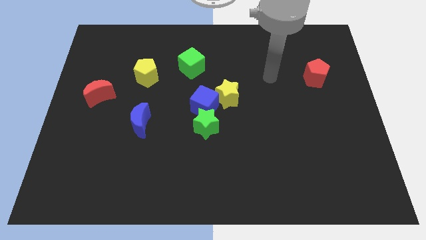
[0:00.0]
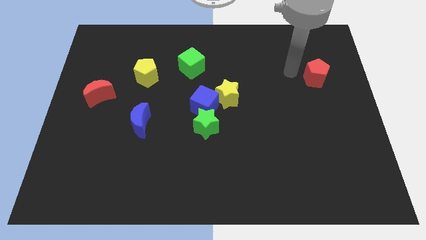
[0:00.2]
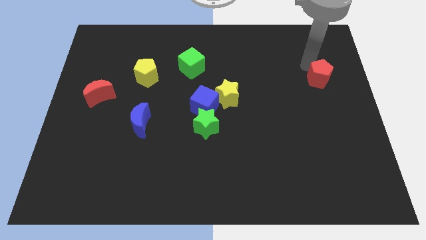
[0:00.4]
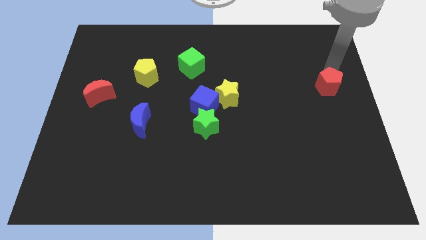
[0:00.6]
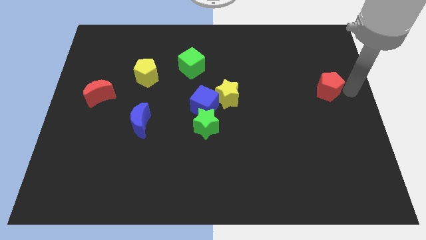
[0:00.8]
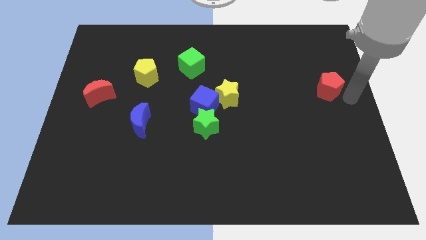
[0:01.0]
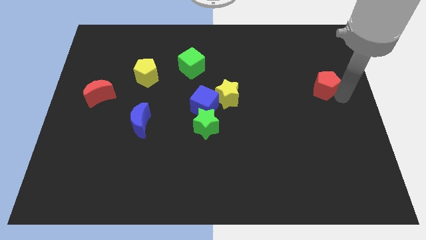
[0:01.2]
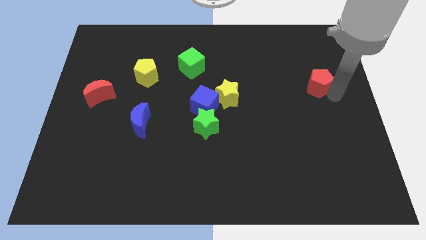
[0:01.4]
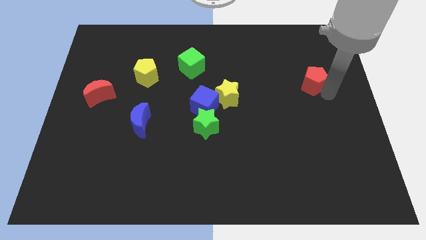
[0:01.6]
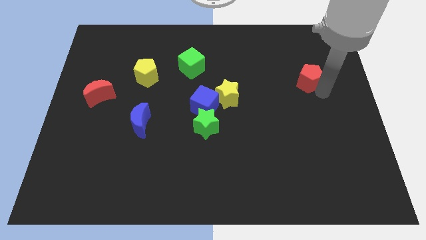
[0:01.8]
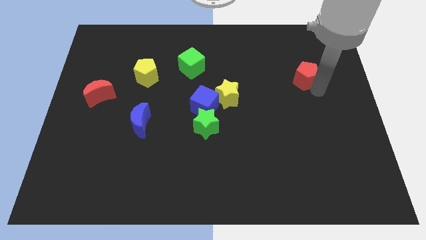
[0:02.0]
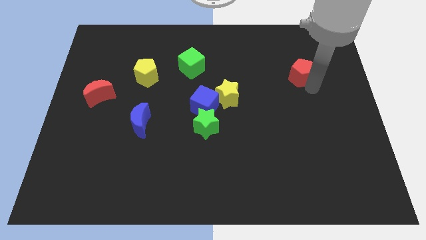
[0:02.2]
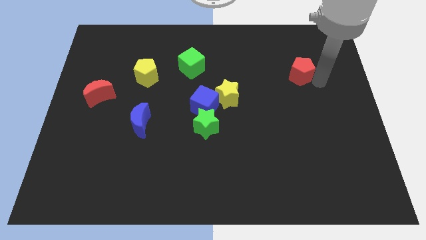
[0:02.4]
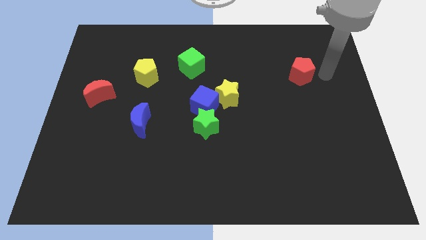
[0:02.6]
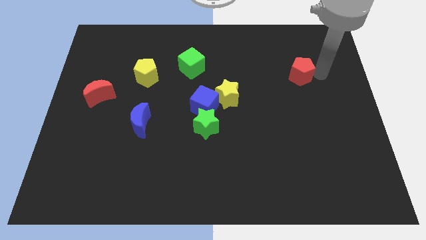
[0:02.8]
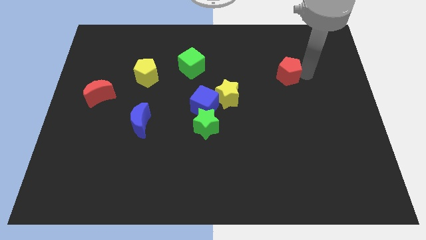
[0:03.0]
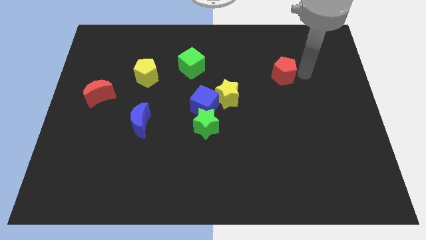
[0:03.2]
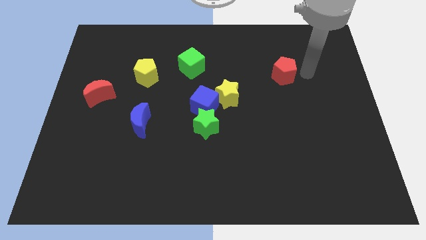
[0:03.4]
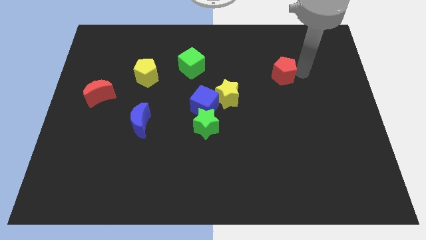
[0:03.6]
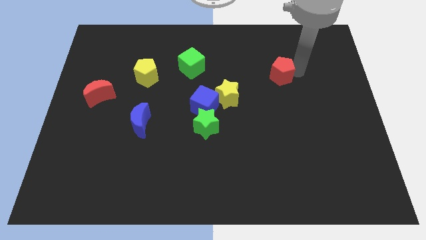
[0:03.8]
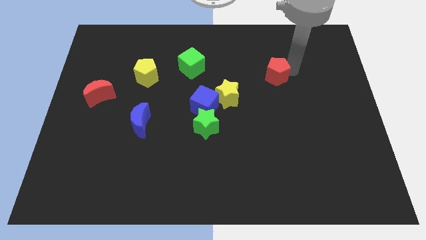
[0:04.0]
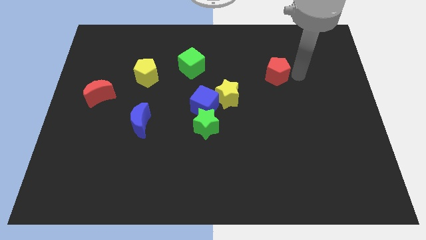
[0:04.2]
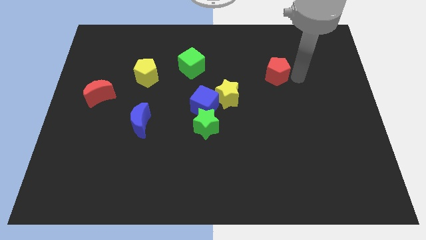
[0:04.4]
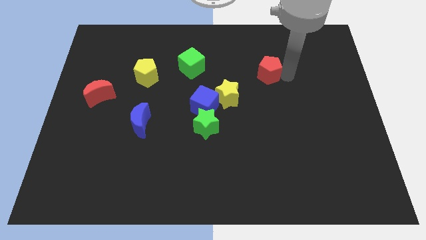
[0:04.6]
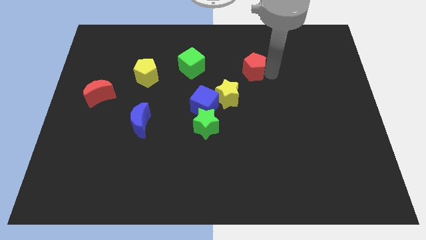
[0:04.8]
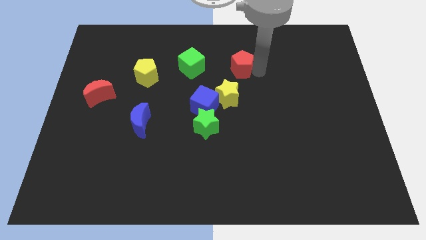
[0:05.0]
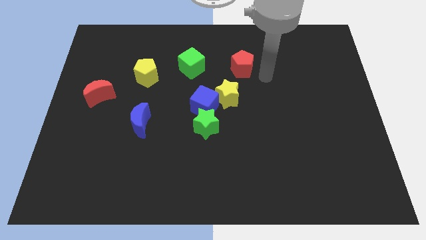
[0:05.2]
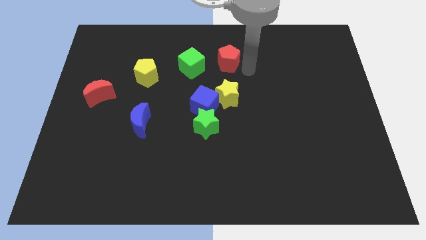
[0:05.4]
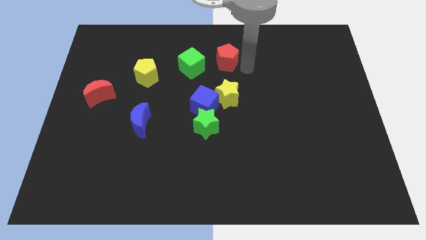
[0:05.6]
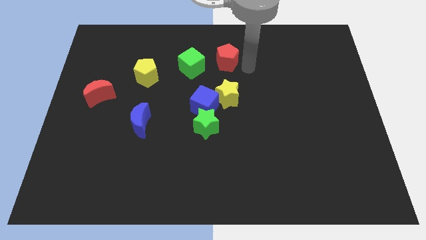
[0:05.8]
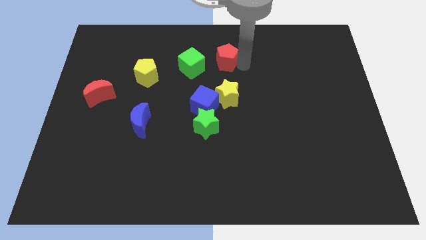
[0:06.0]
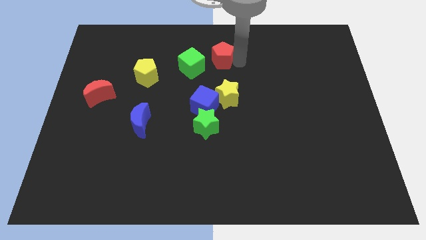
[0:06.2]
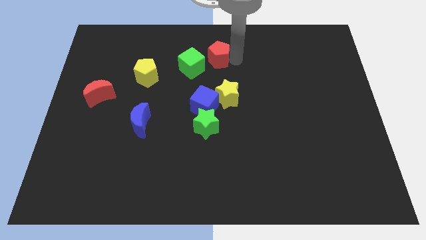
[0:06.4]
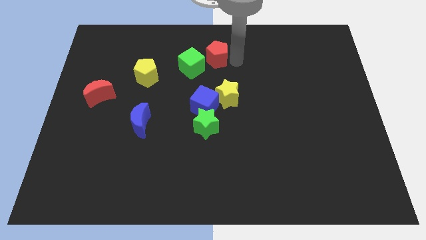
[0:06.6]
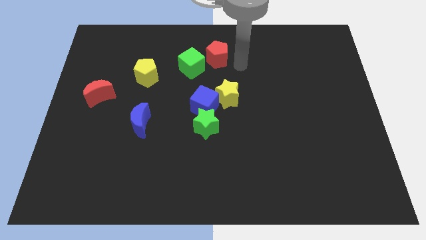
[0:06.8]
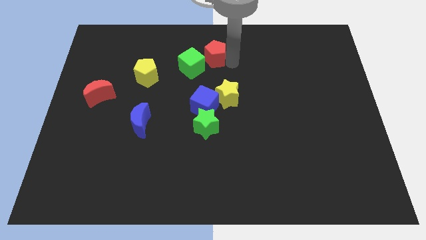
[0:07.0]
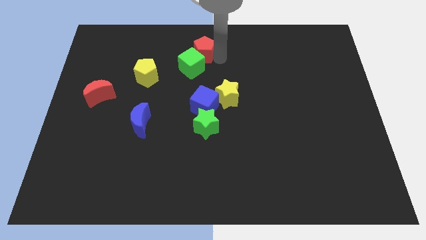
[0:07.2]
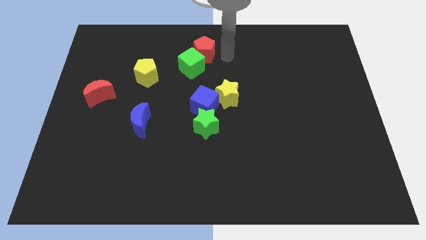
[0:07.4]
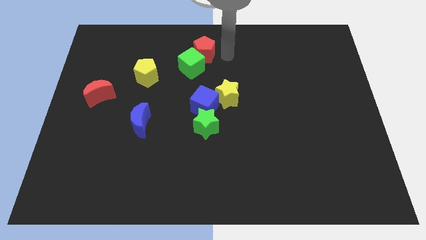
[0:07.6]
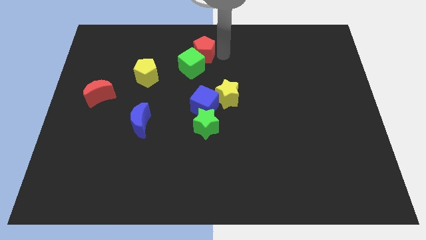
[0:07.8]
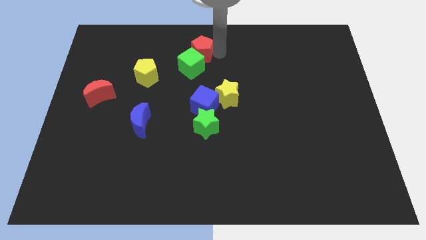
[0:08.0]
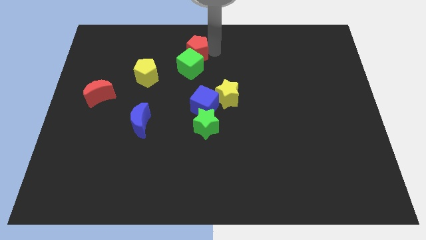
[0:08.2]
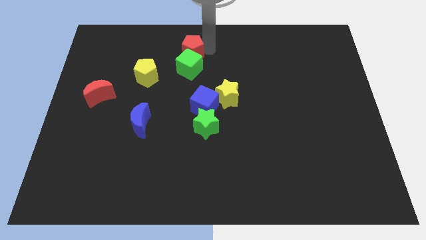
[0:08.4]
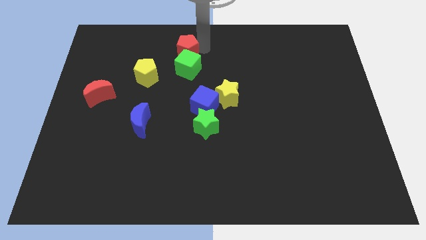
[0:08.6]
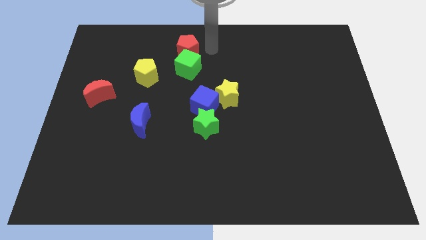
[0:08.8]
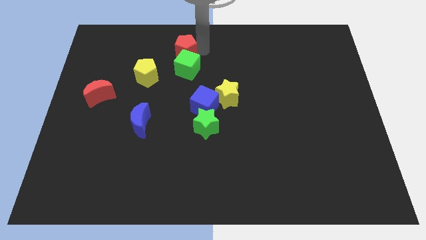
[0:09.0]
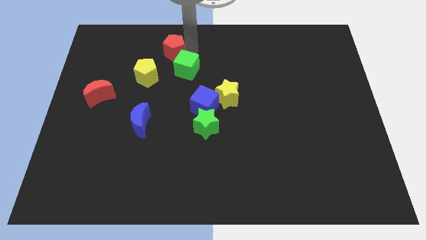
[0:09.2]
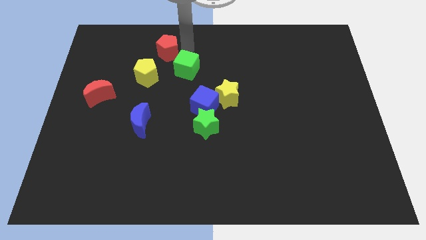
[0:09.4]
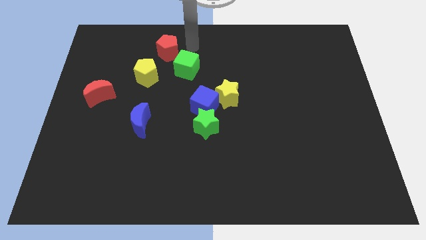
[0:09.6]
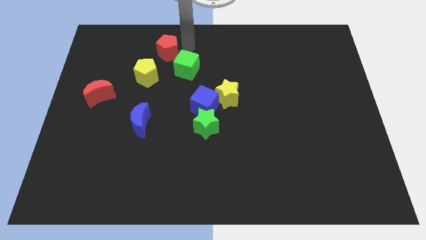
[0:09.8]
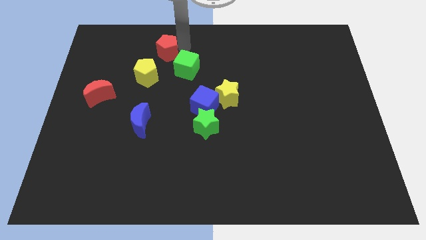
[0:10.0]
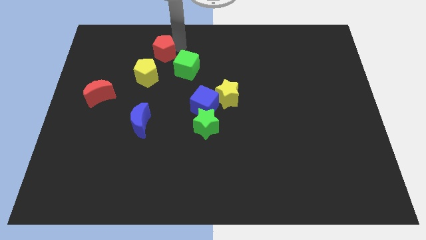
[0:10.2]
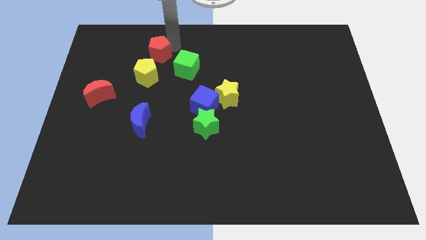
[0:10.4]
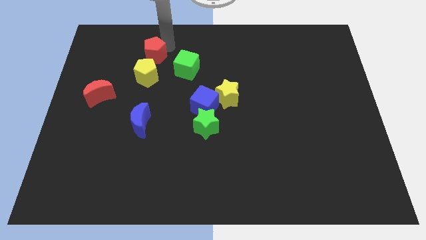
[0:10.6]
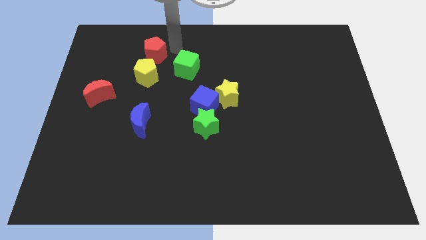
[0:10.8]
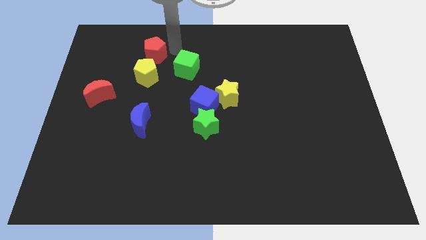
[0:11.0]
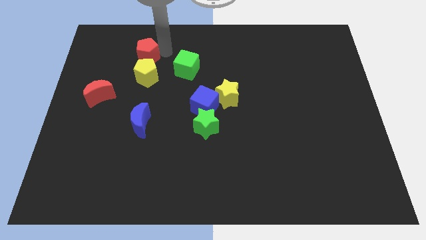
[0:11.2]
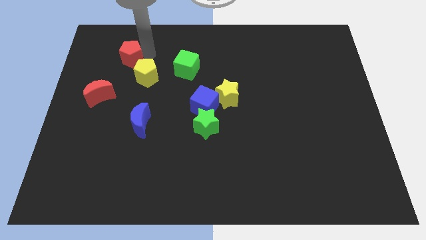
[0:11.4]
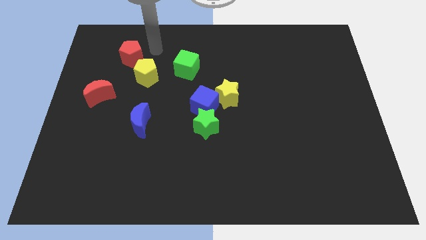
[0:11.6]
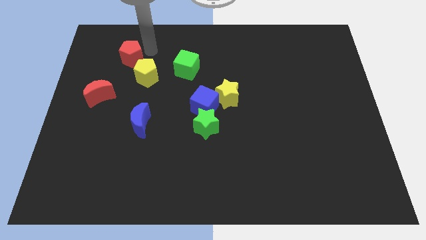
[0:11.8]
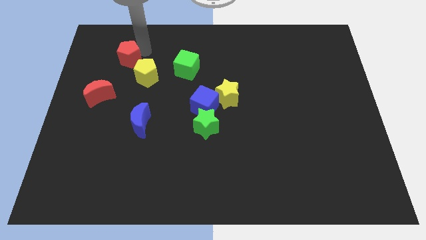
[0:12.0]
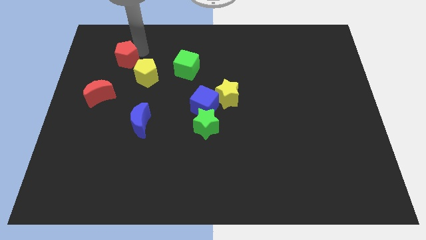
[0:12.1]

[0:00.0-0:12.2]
slide the red pentagon to the top of the red moon

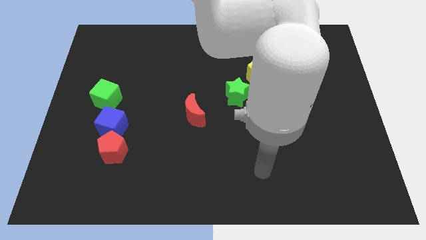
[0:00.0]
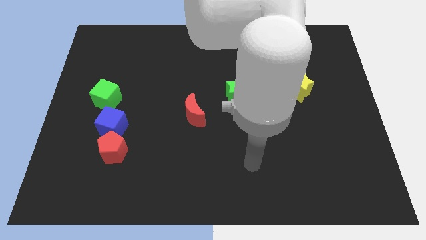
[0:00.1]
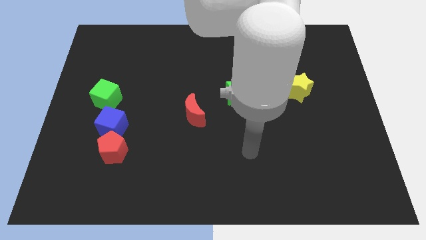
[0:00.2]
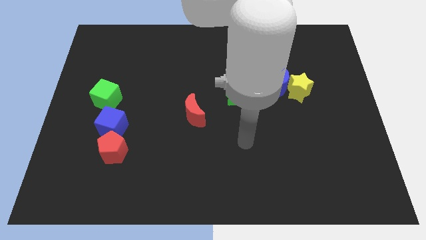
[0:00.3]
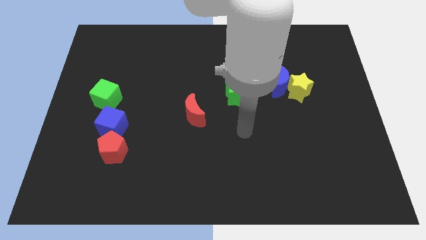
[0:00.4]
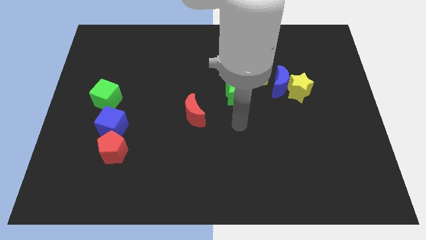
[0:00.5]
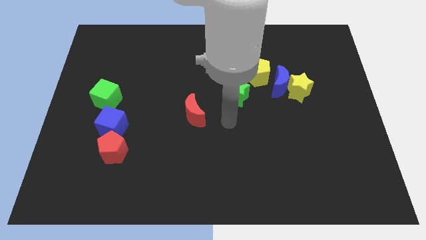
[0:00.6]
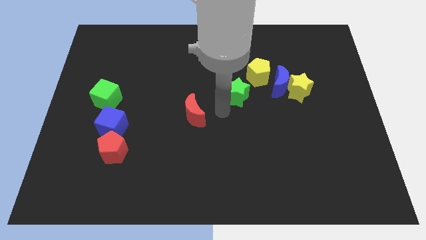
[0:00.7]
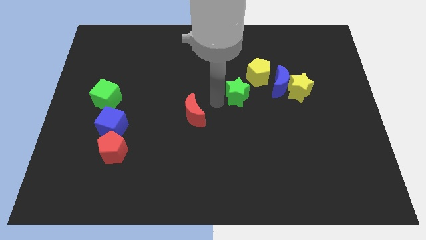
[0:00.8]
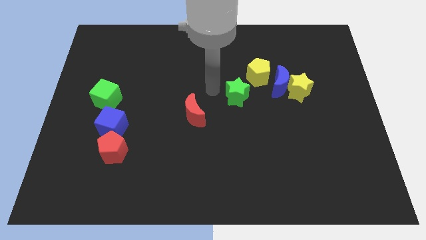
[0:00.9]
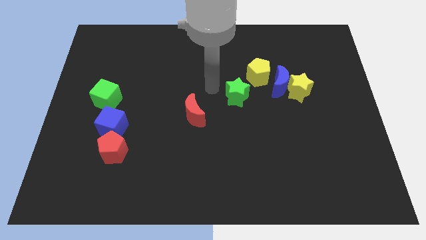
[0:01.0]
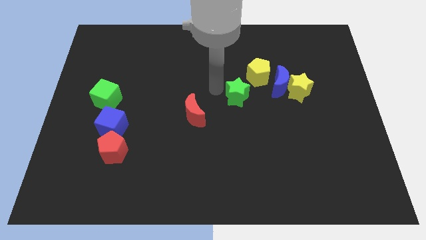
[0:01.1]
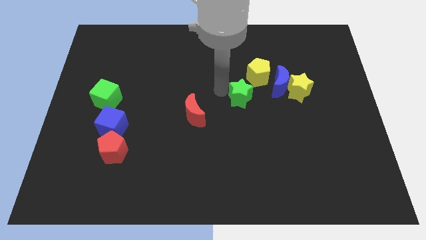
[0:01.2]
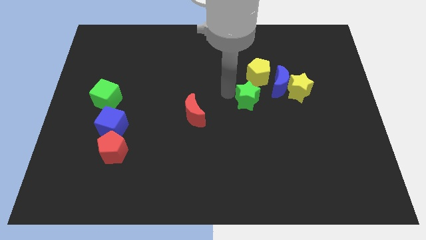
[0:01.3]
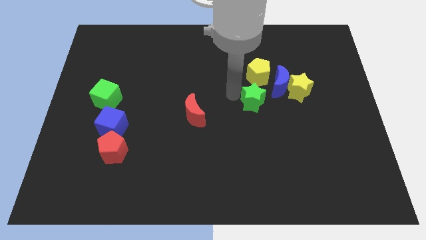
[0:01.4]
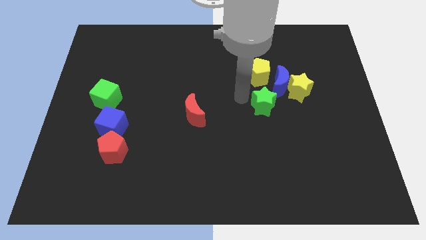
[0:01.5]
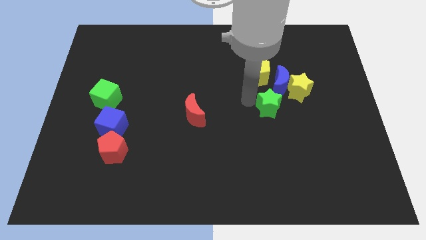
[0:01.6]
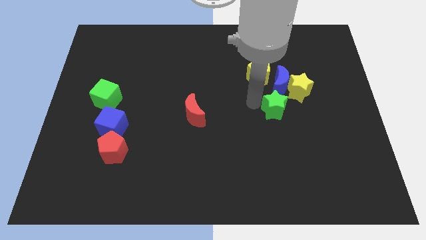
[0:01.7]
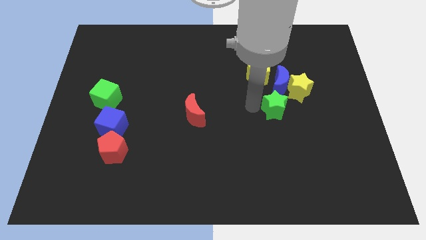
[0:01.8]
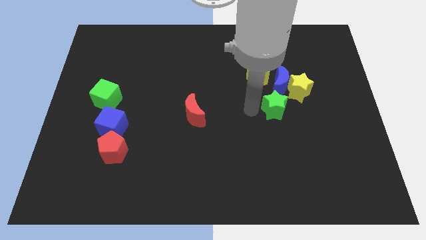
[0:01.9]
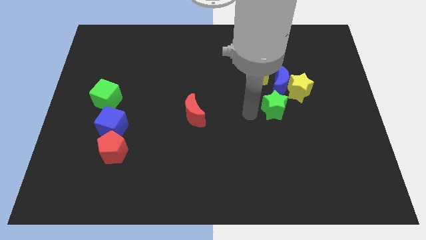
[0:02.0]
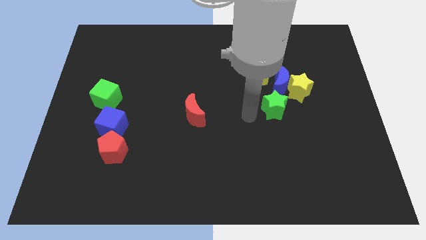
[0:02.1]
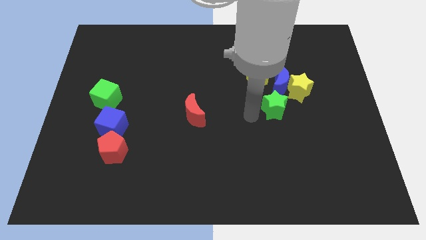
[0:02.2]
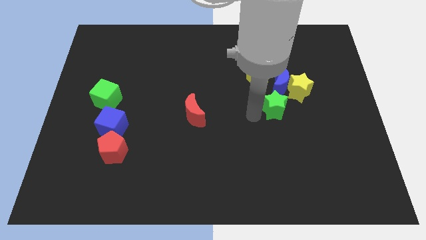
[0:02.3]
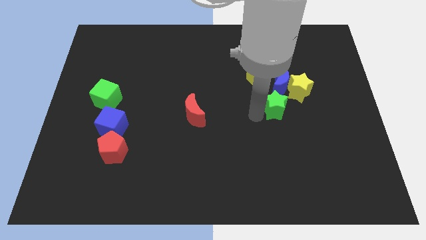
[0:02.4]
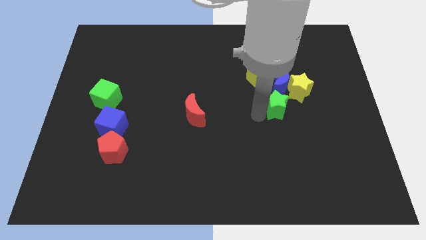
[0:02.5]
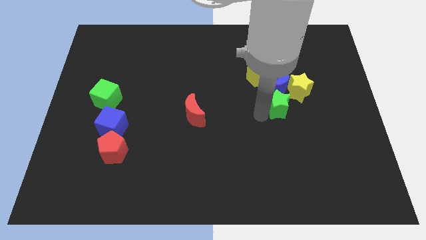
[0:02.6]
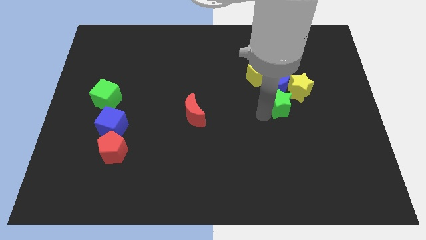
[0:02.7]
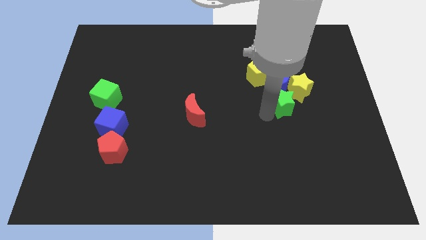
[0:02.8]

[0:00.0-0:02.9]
push the green star to the bottom right side of the blue moon
